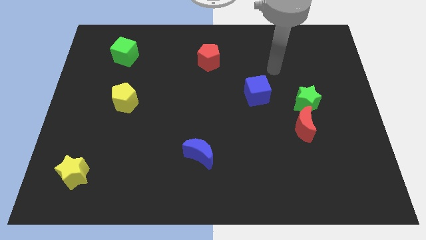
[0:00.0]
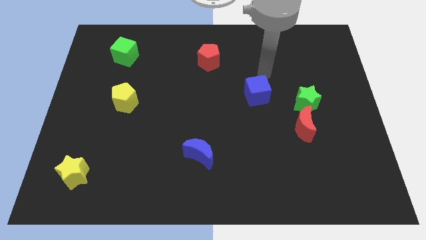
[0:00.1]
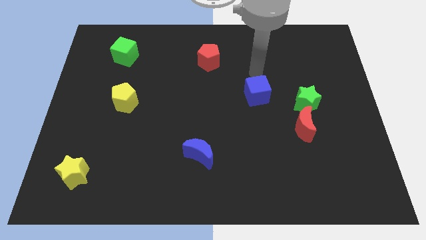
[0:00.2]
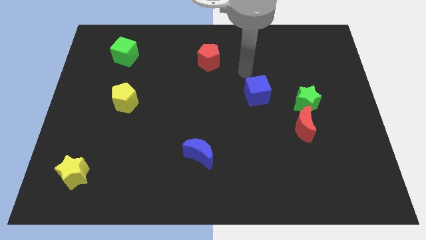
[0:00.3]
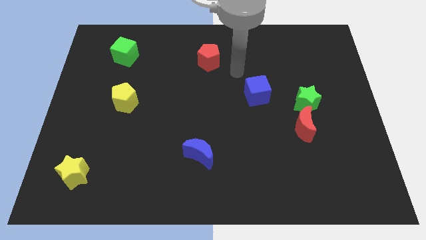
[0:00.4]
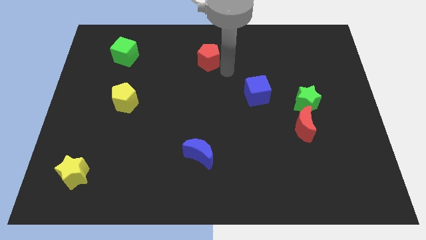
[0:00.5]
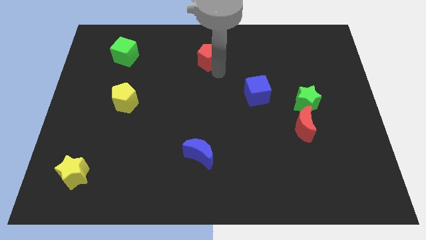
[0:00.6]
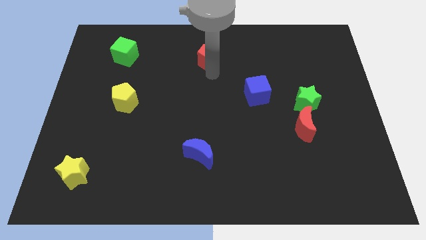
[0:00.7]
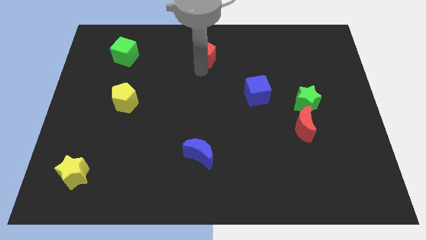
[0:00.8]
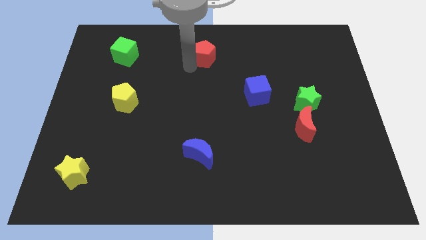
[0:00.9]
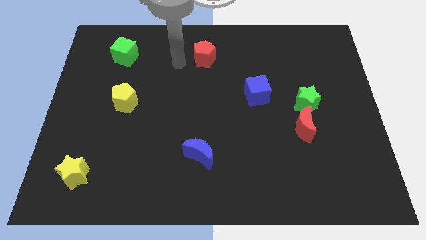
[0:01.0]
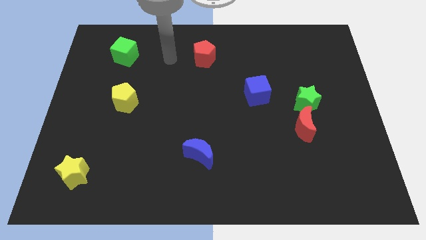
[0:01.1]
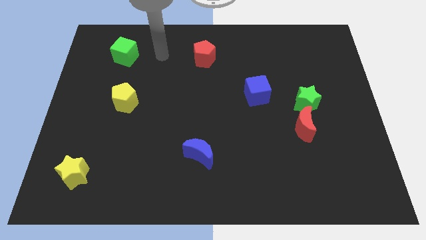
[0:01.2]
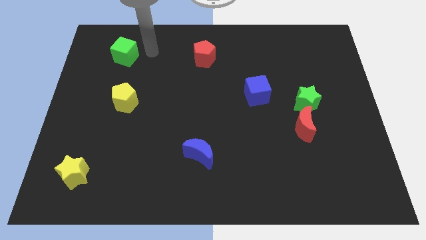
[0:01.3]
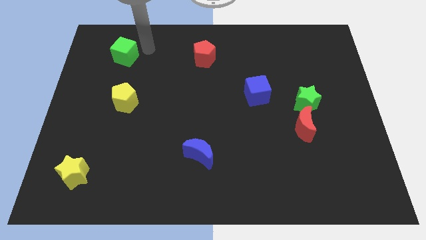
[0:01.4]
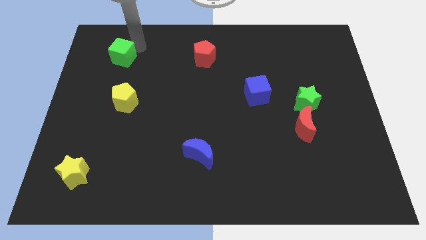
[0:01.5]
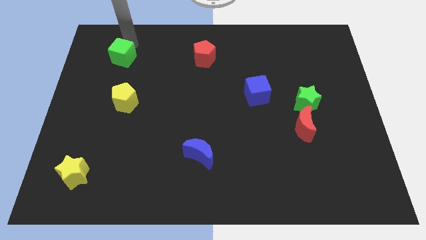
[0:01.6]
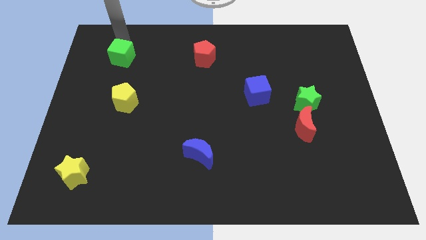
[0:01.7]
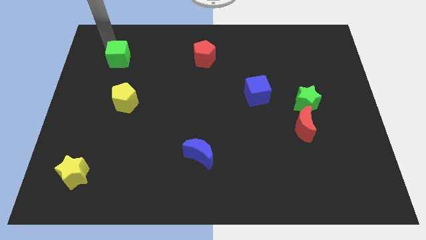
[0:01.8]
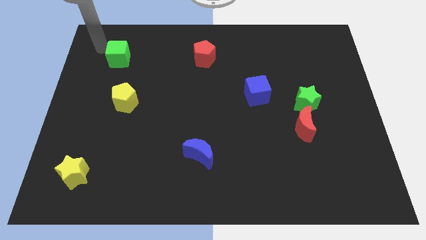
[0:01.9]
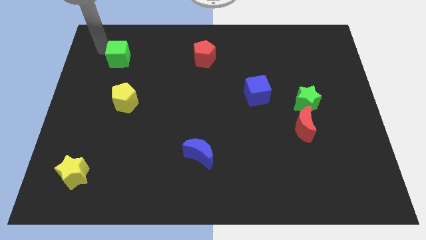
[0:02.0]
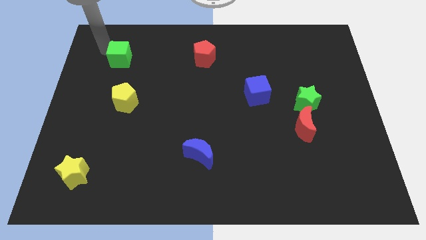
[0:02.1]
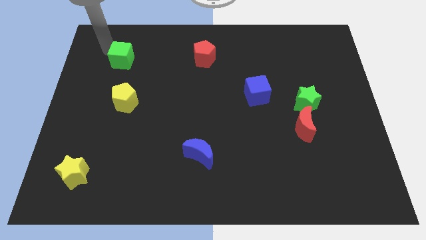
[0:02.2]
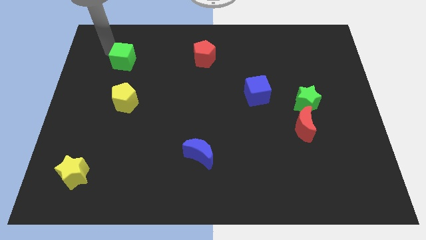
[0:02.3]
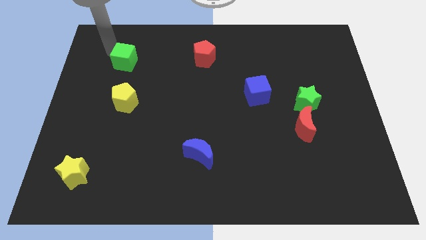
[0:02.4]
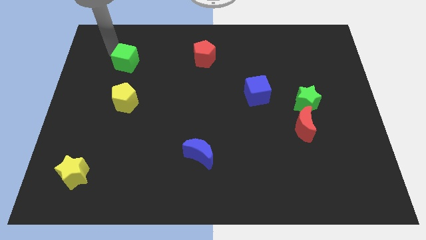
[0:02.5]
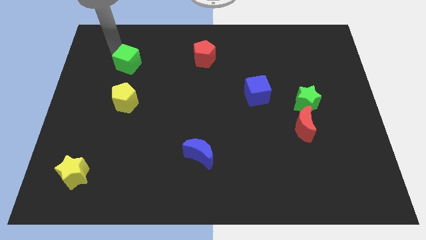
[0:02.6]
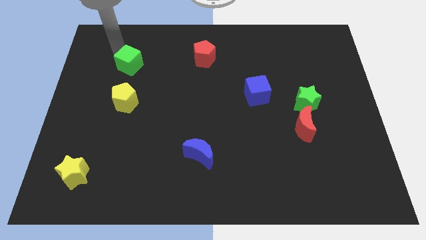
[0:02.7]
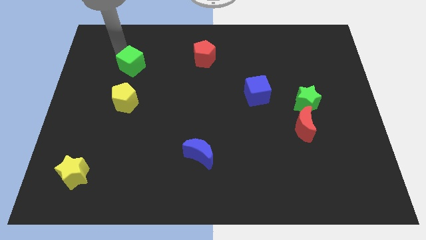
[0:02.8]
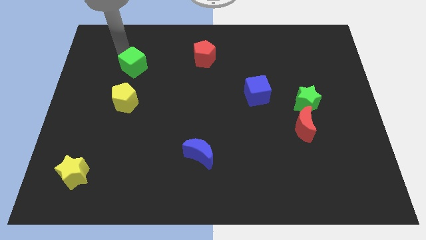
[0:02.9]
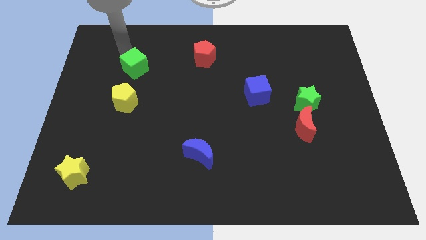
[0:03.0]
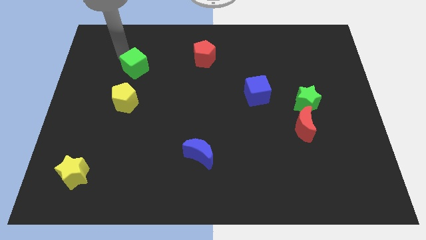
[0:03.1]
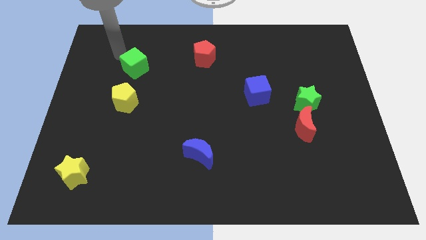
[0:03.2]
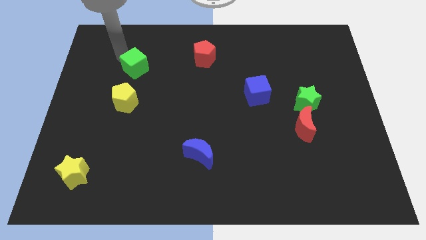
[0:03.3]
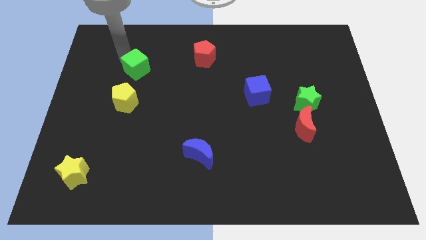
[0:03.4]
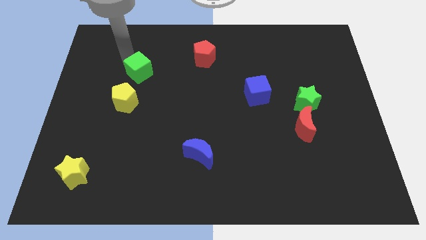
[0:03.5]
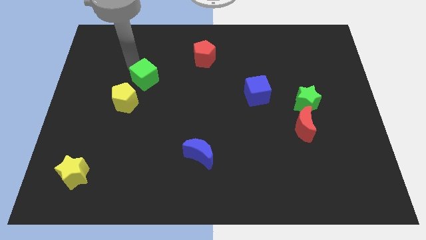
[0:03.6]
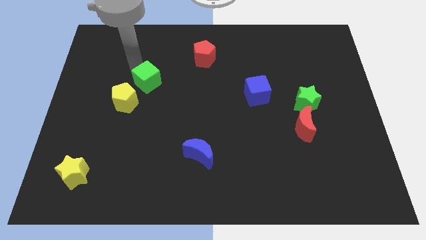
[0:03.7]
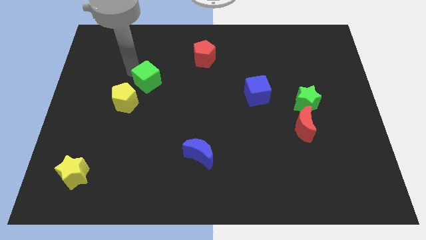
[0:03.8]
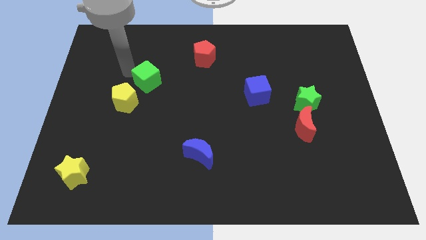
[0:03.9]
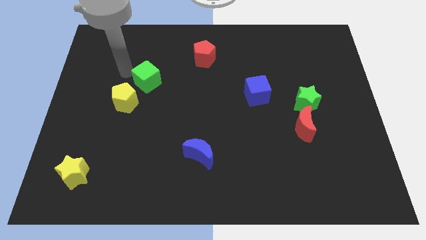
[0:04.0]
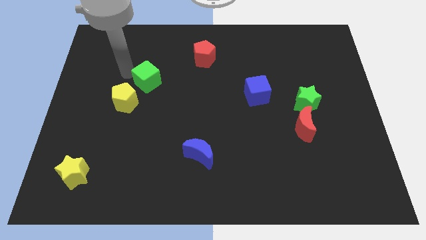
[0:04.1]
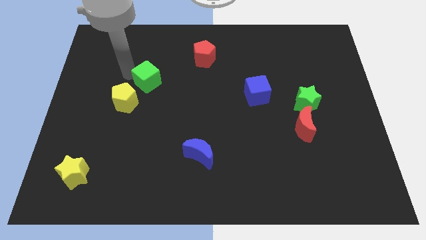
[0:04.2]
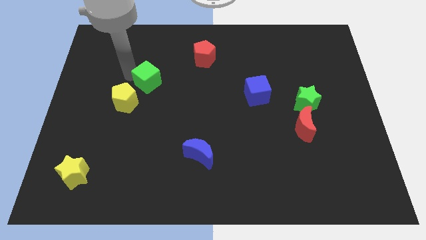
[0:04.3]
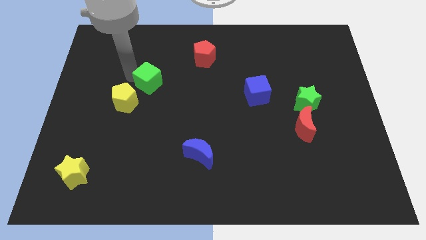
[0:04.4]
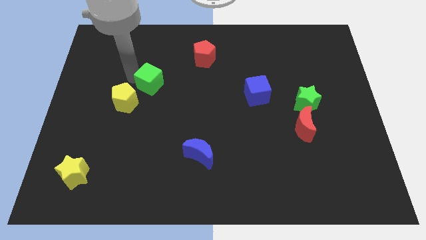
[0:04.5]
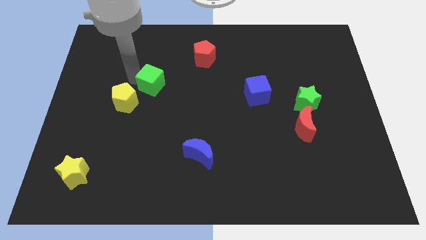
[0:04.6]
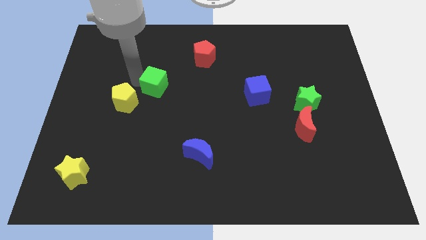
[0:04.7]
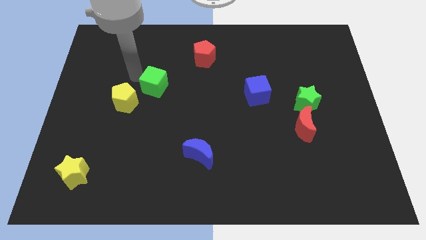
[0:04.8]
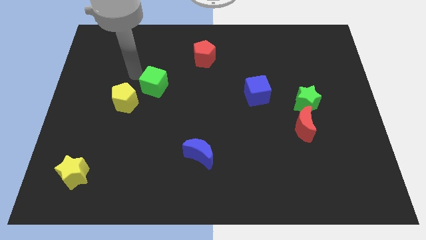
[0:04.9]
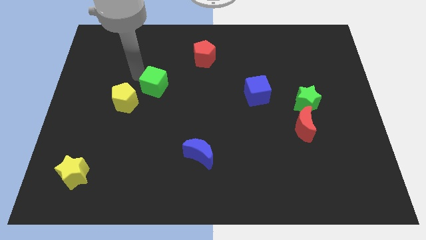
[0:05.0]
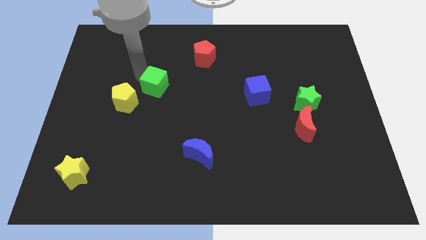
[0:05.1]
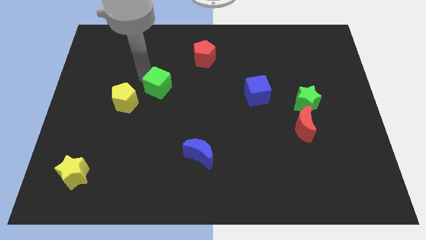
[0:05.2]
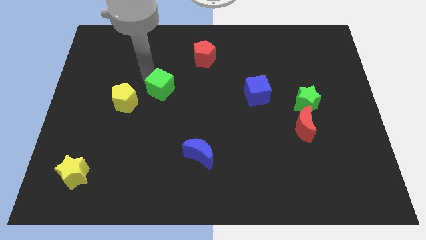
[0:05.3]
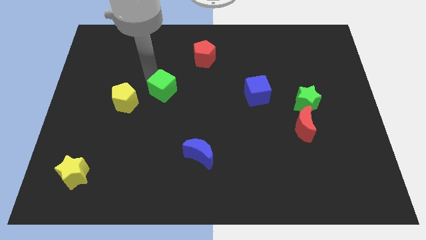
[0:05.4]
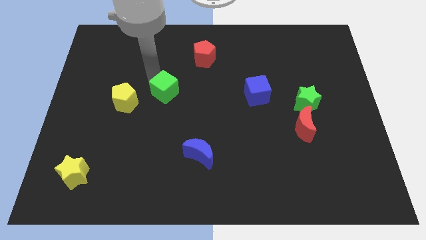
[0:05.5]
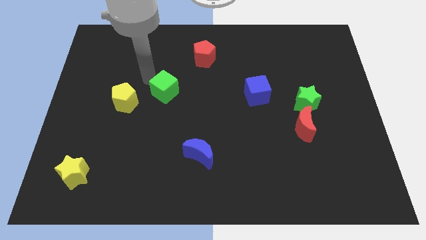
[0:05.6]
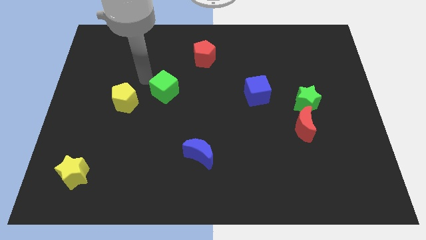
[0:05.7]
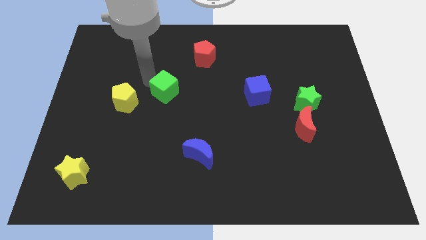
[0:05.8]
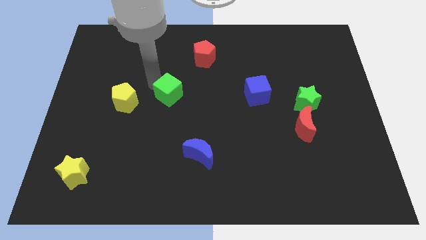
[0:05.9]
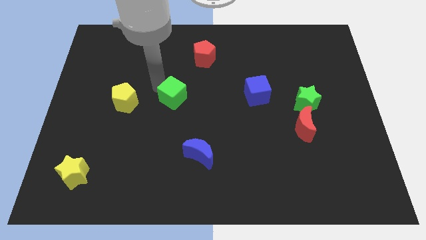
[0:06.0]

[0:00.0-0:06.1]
move the green cube downwards and right

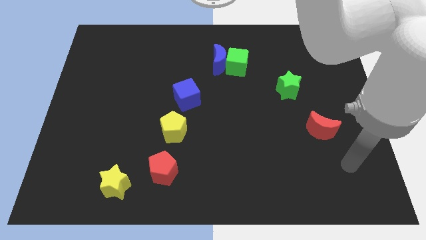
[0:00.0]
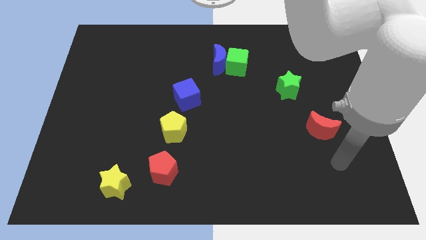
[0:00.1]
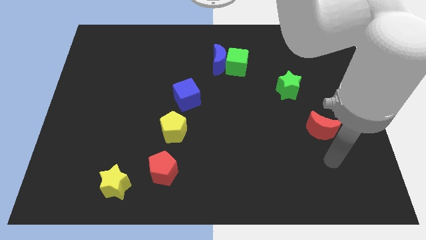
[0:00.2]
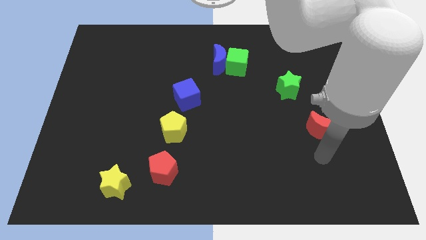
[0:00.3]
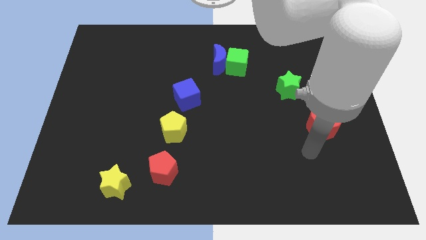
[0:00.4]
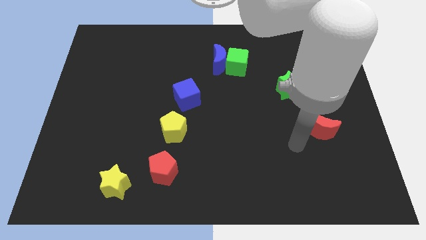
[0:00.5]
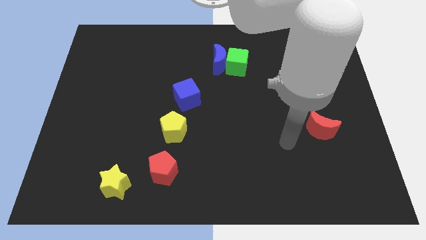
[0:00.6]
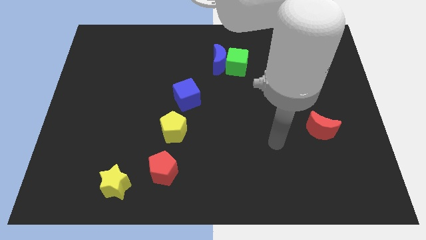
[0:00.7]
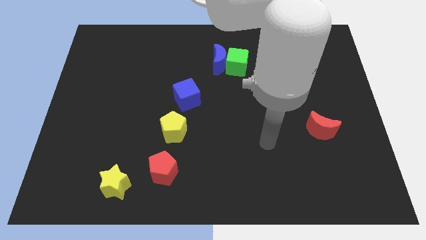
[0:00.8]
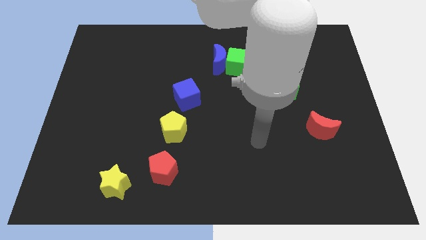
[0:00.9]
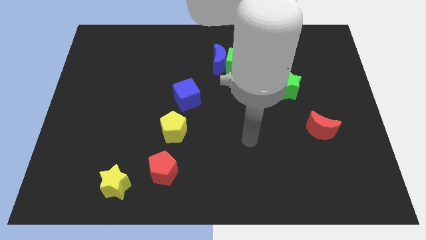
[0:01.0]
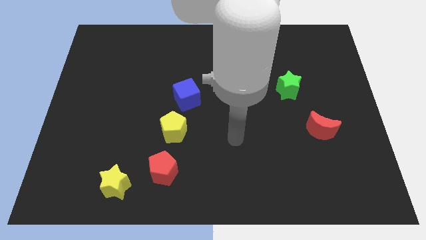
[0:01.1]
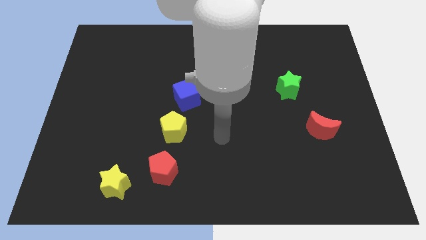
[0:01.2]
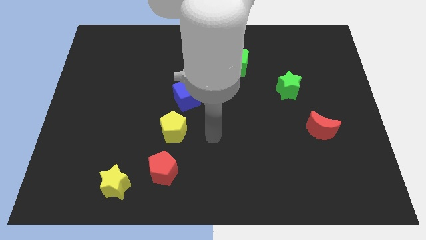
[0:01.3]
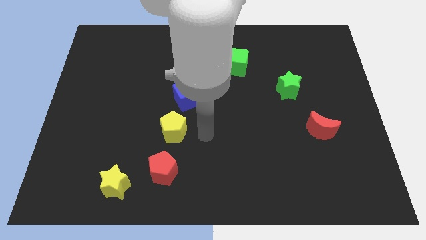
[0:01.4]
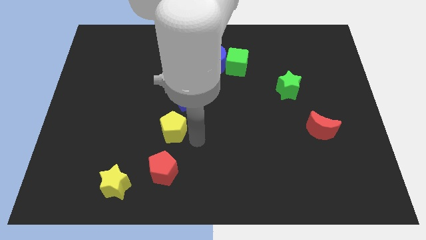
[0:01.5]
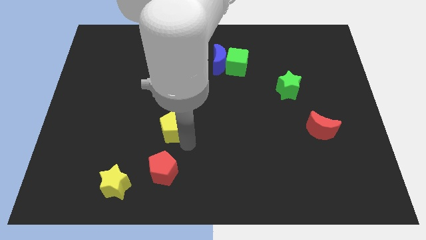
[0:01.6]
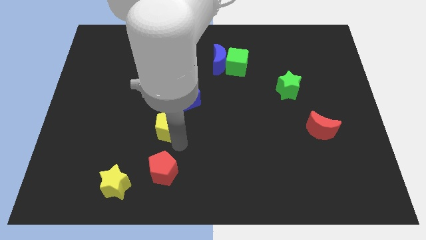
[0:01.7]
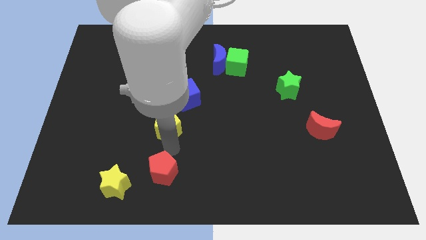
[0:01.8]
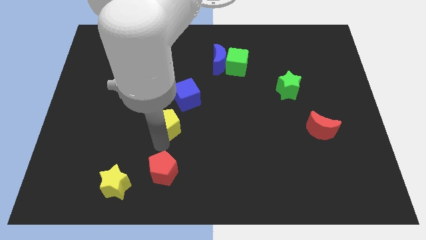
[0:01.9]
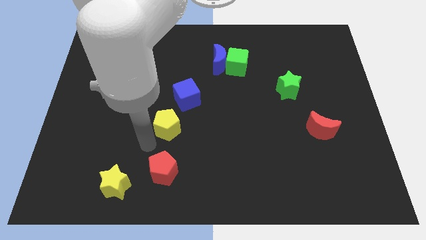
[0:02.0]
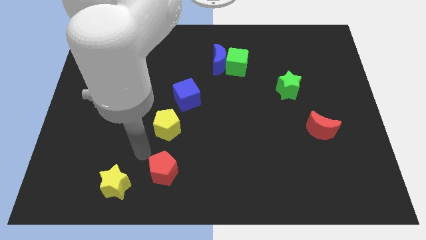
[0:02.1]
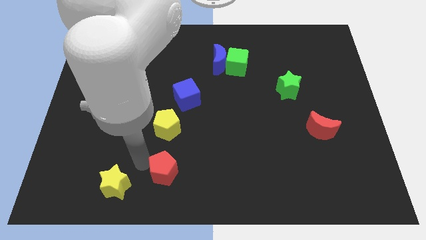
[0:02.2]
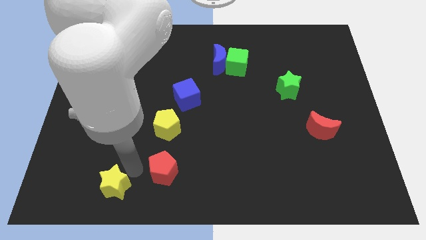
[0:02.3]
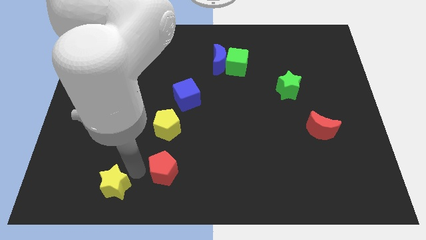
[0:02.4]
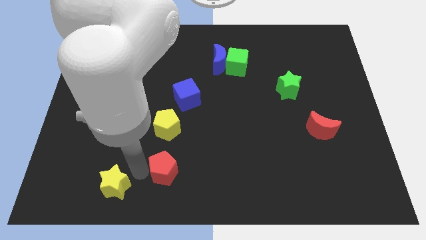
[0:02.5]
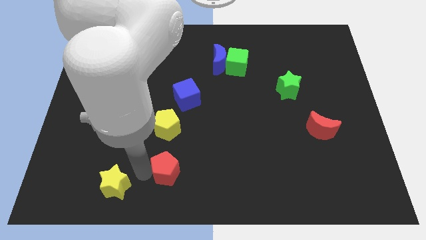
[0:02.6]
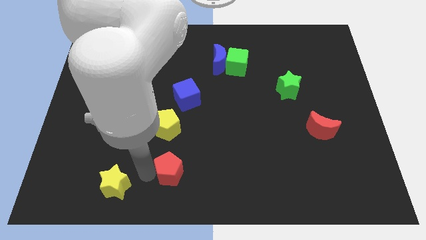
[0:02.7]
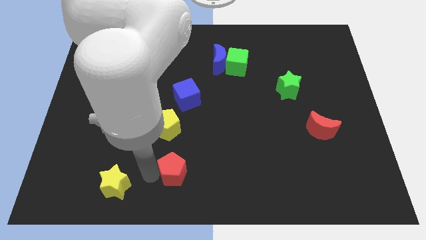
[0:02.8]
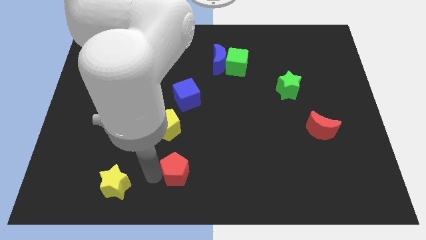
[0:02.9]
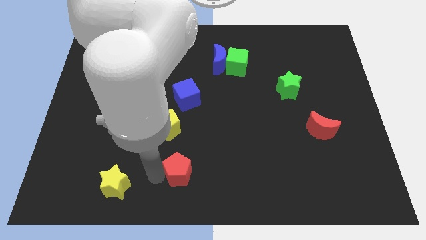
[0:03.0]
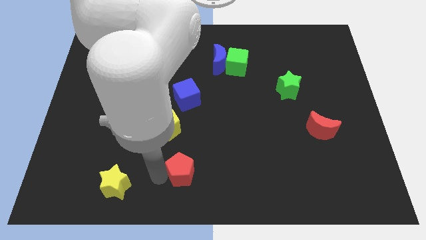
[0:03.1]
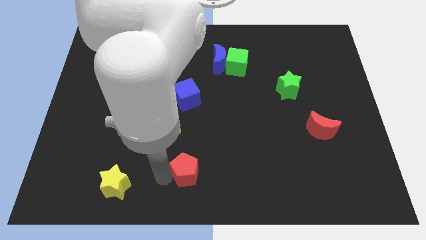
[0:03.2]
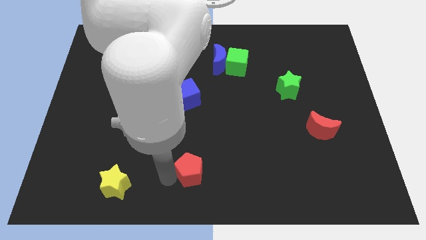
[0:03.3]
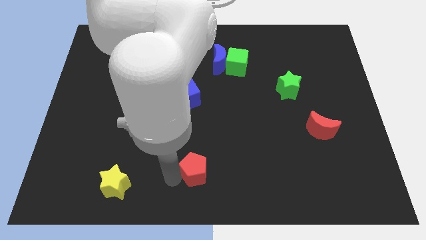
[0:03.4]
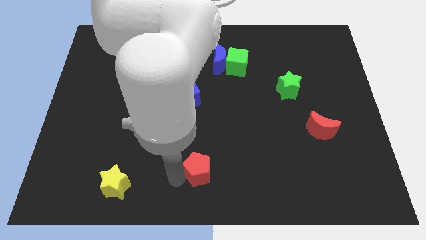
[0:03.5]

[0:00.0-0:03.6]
move the red pentagon a little bit right
